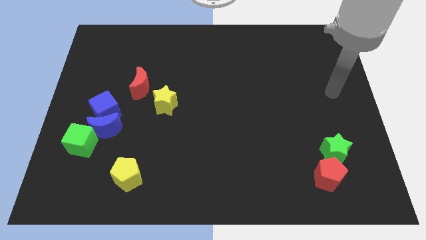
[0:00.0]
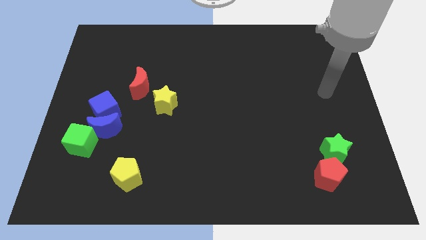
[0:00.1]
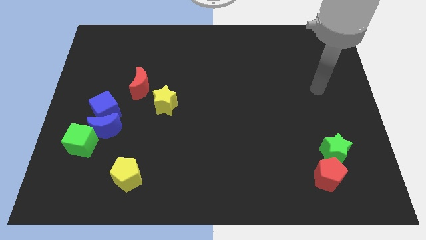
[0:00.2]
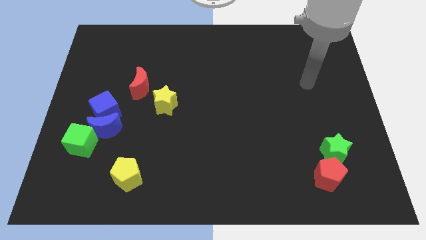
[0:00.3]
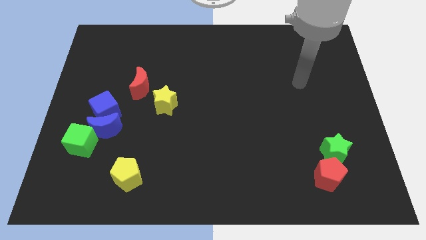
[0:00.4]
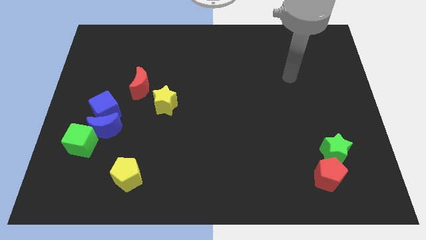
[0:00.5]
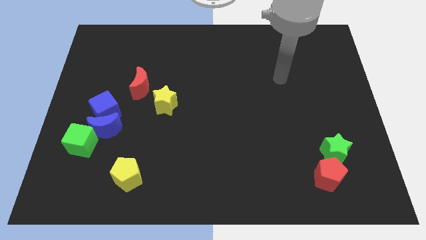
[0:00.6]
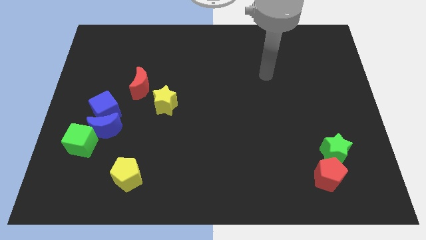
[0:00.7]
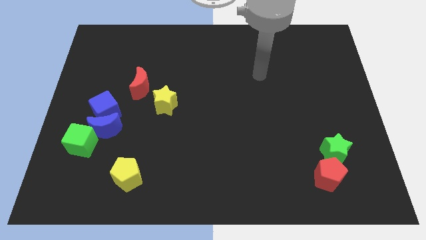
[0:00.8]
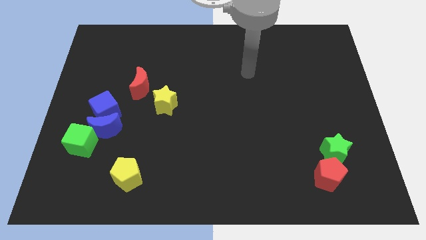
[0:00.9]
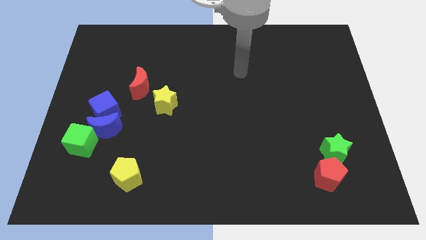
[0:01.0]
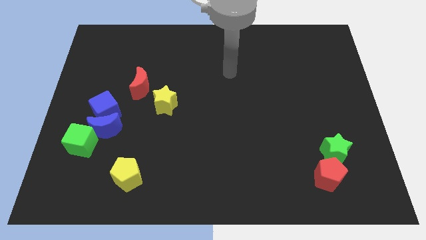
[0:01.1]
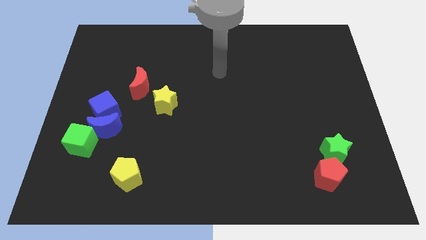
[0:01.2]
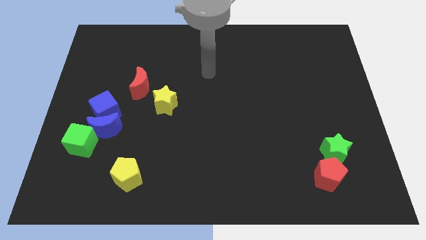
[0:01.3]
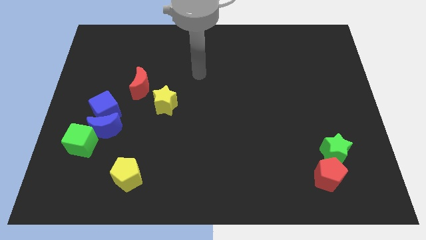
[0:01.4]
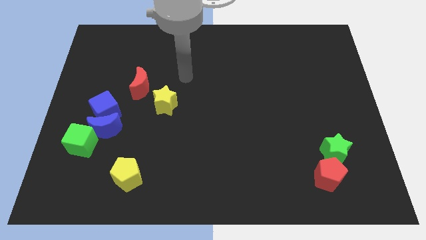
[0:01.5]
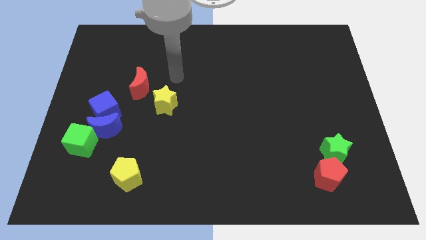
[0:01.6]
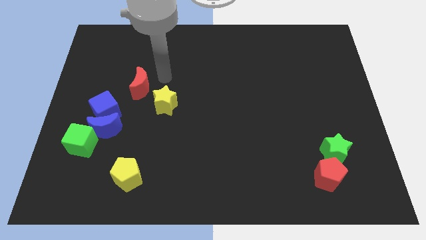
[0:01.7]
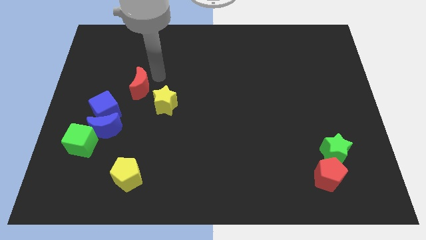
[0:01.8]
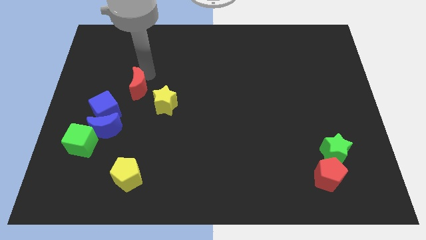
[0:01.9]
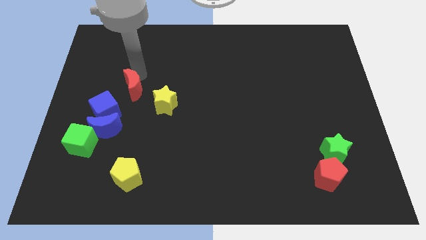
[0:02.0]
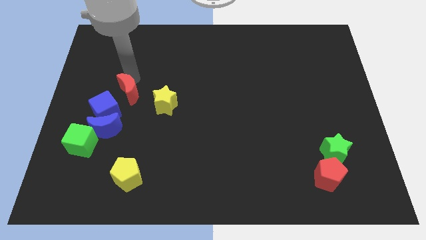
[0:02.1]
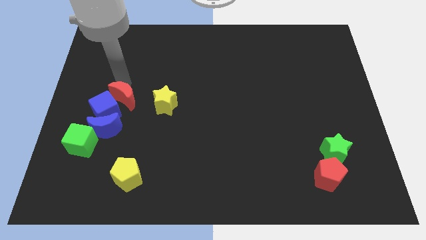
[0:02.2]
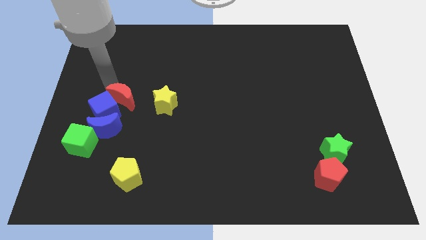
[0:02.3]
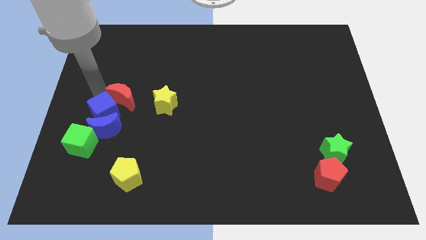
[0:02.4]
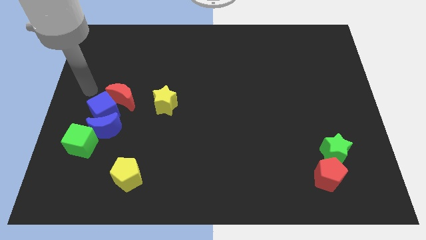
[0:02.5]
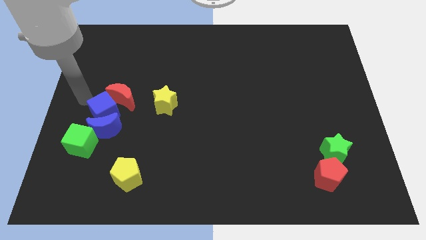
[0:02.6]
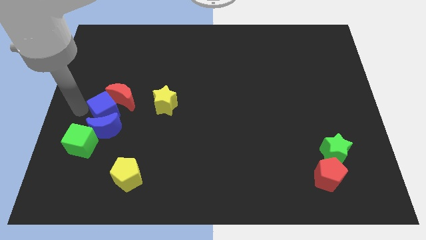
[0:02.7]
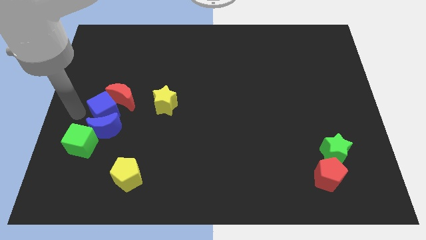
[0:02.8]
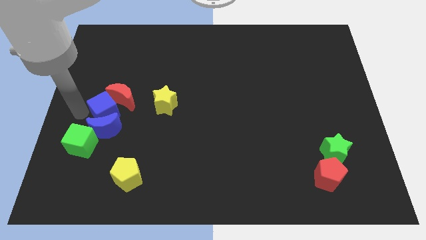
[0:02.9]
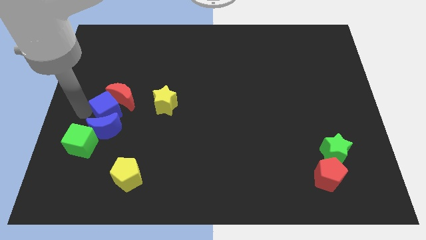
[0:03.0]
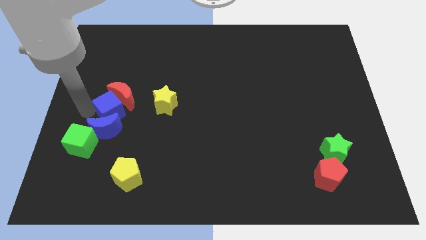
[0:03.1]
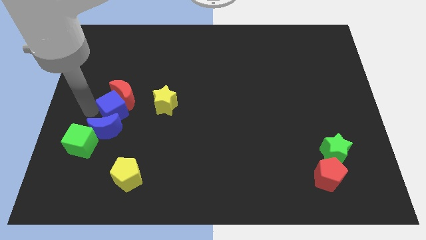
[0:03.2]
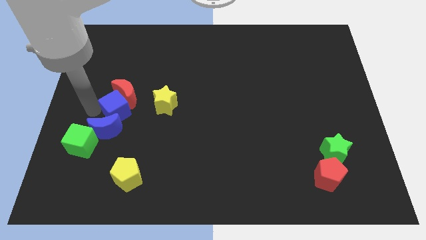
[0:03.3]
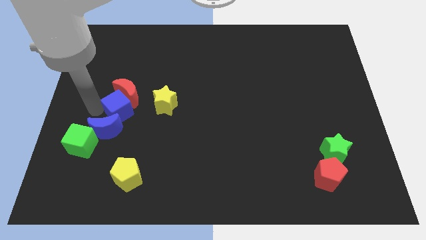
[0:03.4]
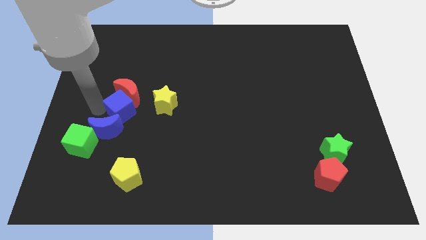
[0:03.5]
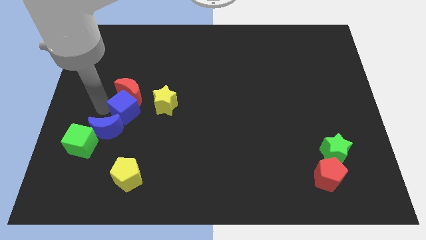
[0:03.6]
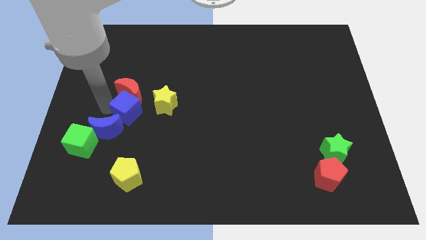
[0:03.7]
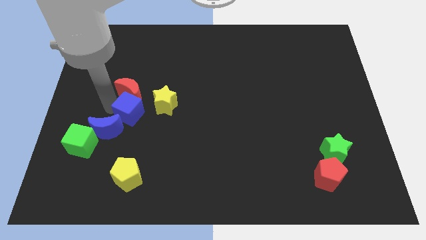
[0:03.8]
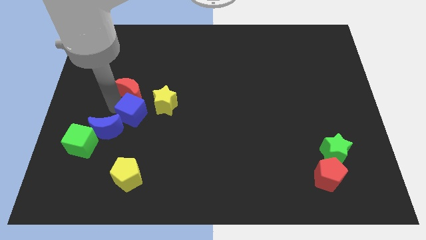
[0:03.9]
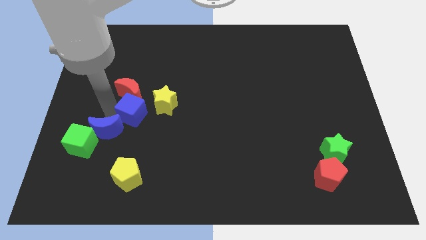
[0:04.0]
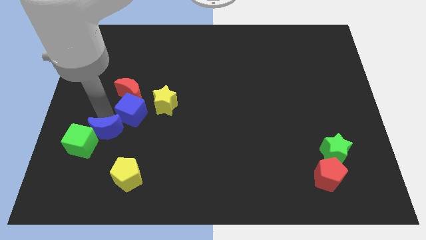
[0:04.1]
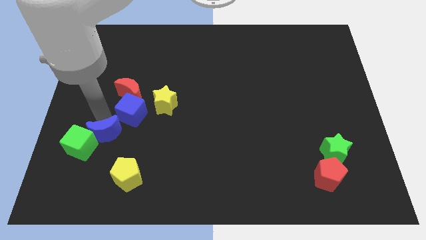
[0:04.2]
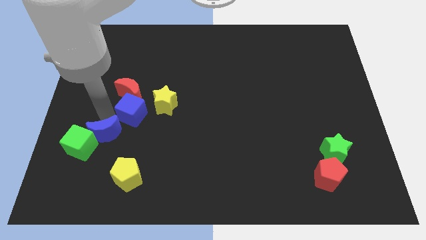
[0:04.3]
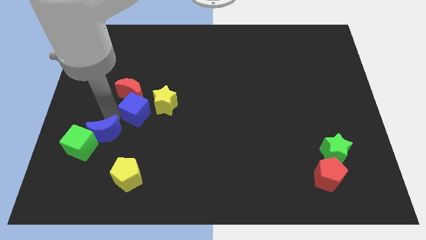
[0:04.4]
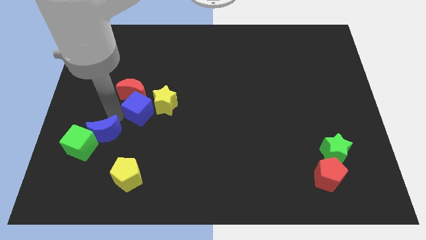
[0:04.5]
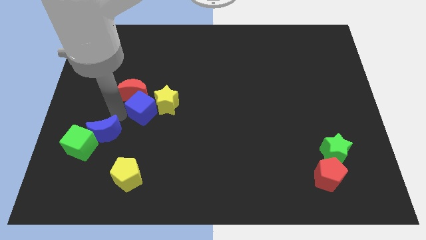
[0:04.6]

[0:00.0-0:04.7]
push the blue cube towards the yellow star

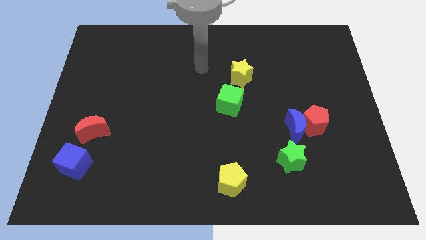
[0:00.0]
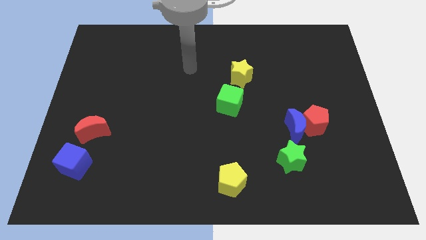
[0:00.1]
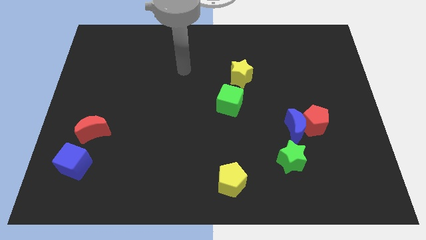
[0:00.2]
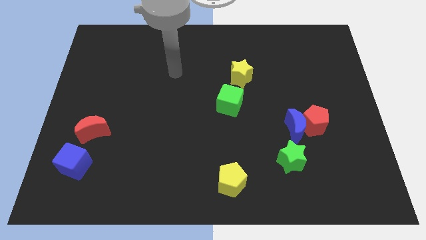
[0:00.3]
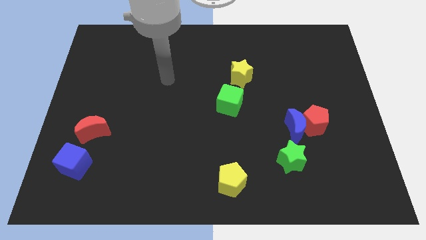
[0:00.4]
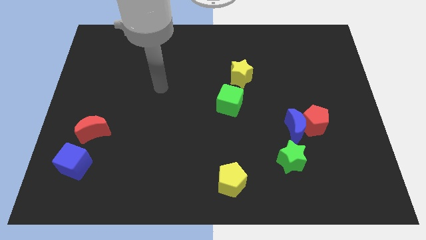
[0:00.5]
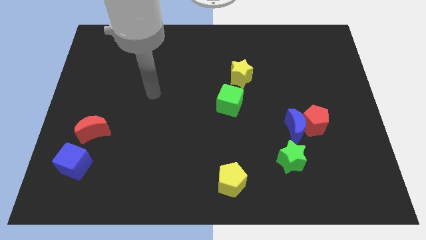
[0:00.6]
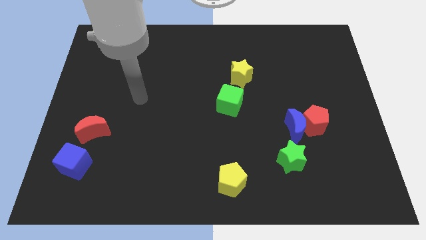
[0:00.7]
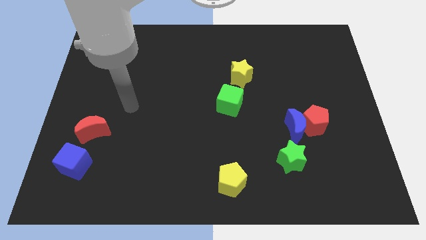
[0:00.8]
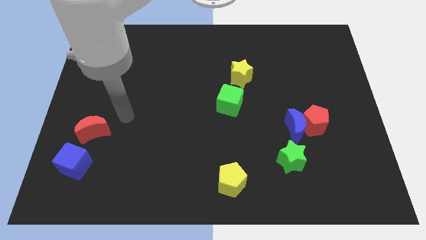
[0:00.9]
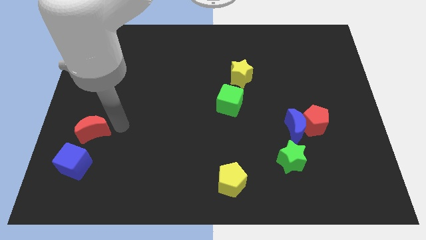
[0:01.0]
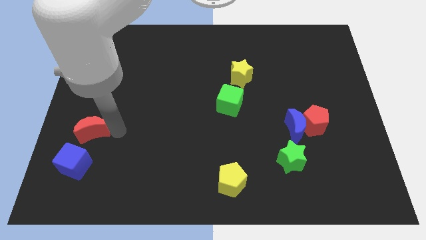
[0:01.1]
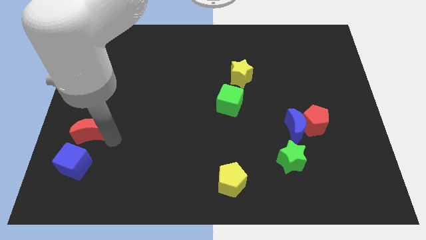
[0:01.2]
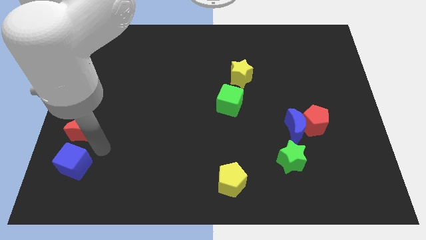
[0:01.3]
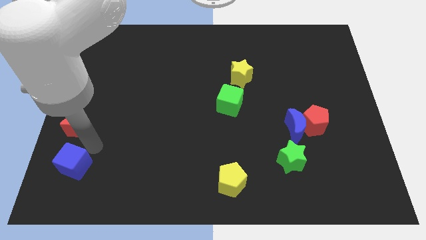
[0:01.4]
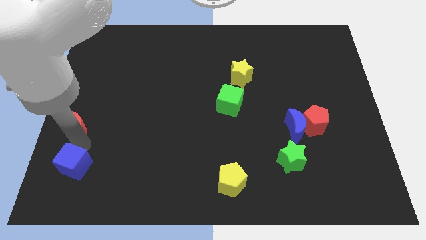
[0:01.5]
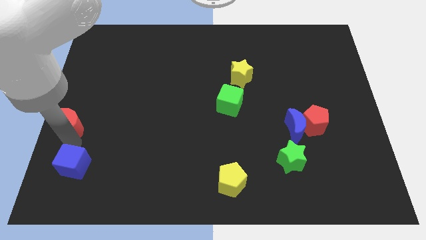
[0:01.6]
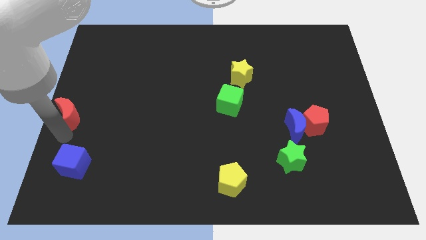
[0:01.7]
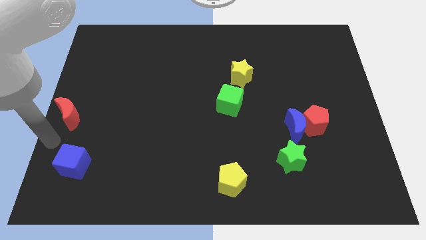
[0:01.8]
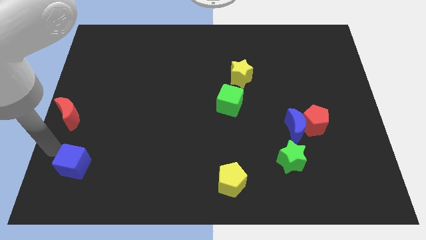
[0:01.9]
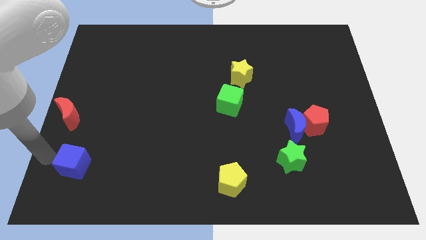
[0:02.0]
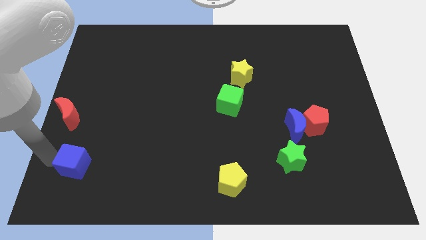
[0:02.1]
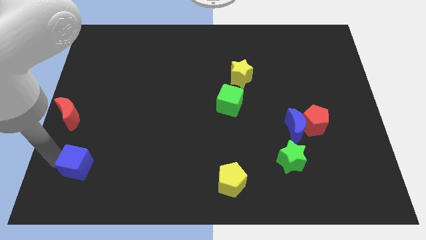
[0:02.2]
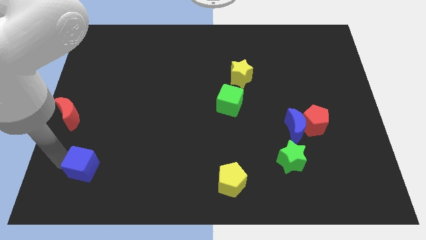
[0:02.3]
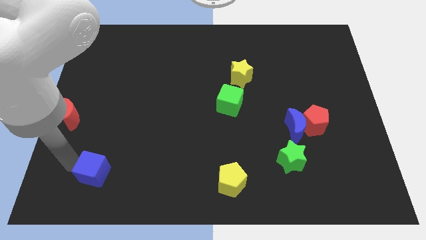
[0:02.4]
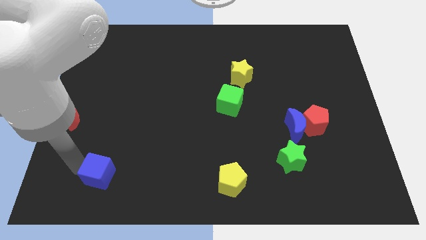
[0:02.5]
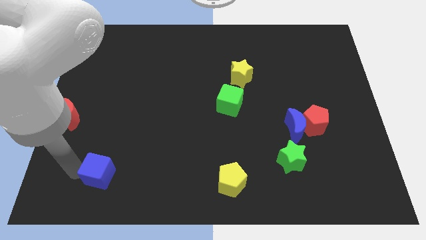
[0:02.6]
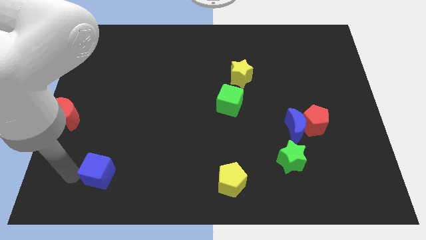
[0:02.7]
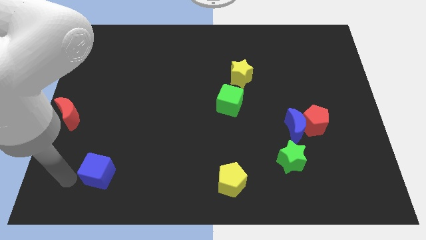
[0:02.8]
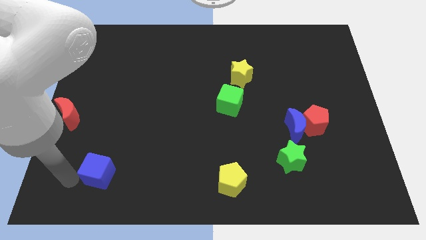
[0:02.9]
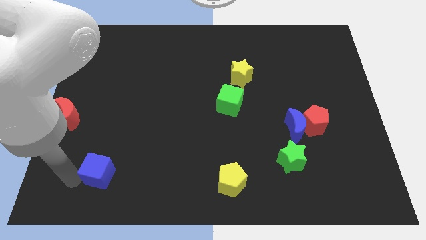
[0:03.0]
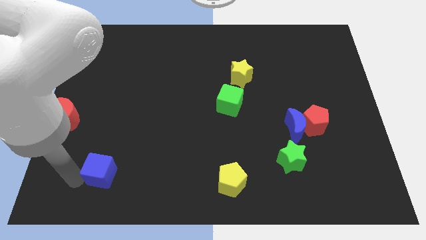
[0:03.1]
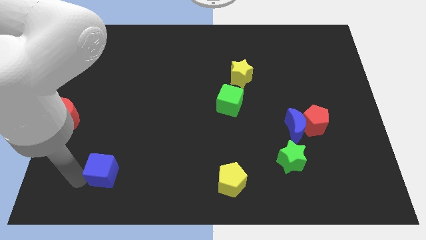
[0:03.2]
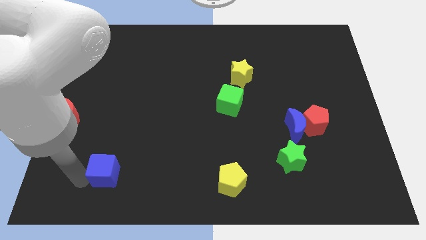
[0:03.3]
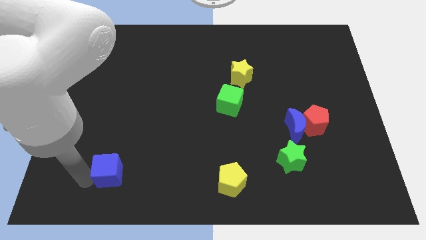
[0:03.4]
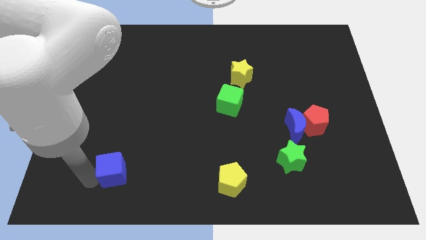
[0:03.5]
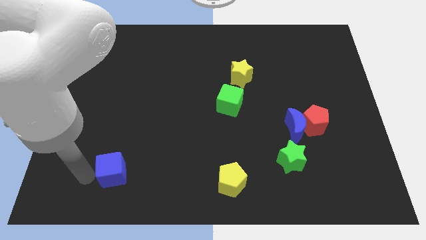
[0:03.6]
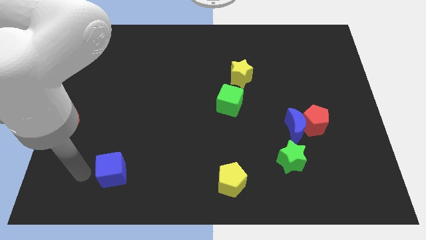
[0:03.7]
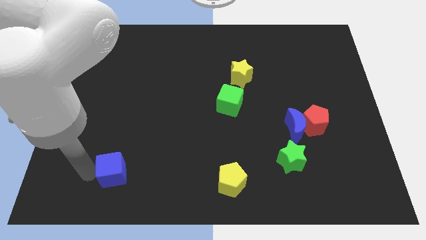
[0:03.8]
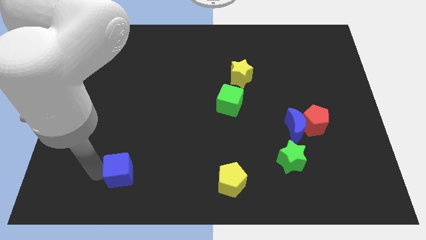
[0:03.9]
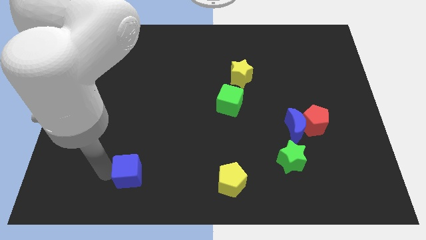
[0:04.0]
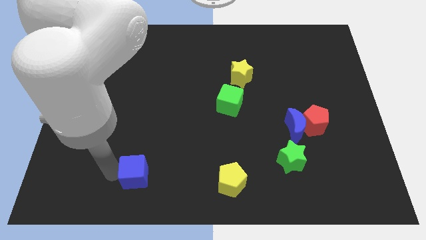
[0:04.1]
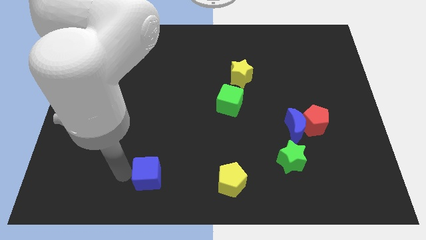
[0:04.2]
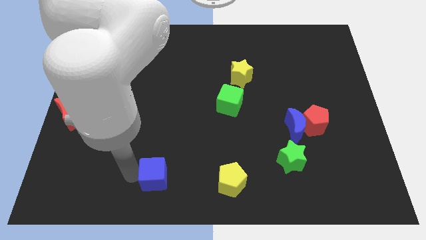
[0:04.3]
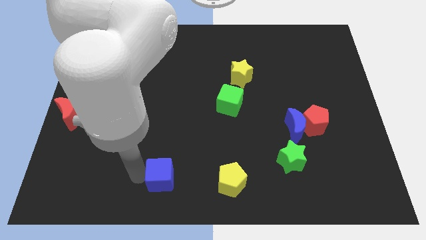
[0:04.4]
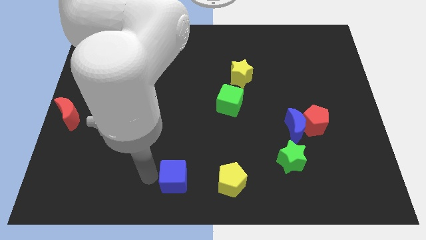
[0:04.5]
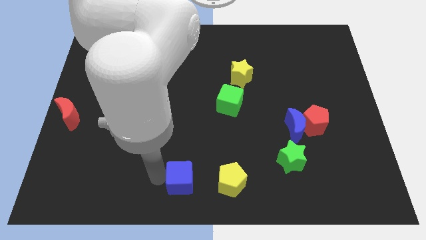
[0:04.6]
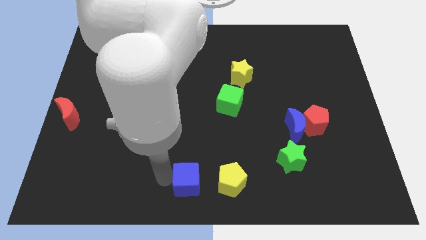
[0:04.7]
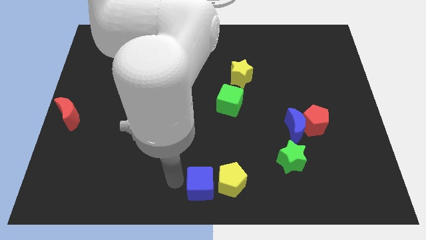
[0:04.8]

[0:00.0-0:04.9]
move the blue cube close to the yellow pentagon
